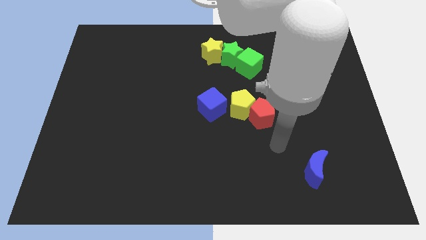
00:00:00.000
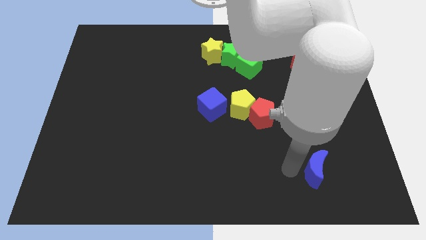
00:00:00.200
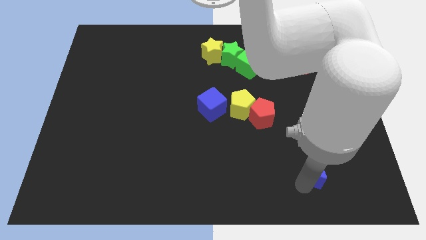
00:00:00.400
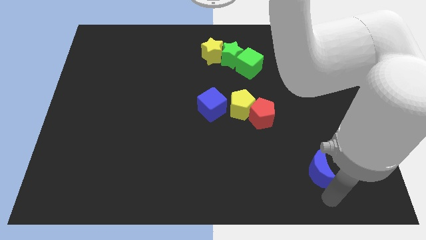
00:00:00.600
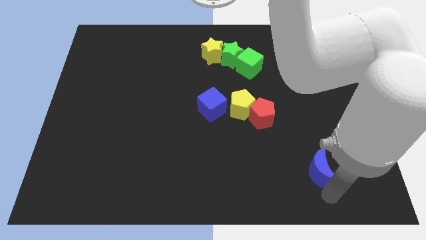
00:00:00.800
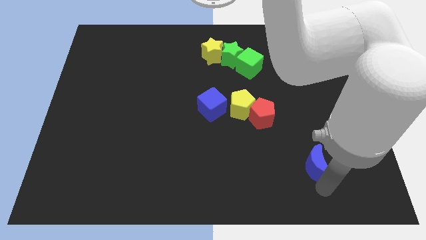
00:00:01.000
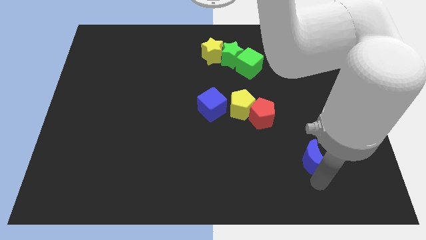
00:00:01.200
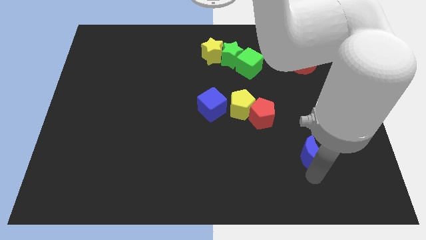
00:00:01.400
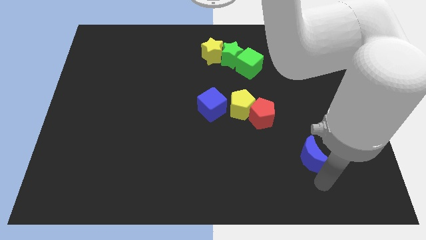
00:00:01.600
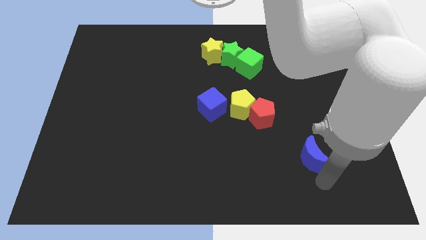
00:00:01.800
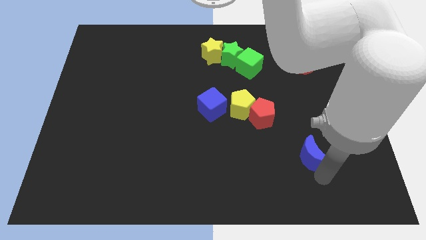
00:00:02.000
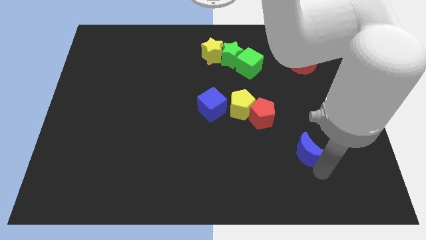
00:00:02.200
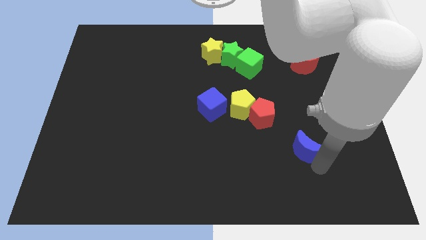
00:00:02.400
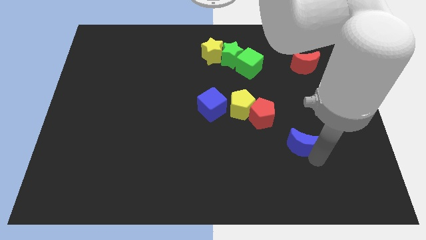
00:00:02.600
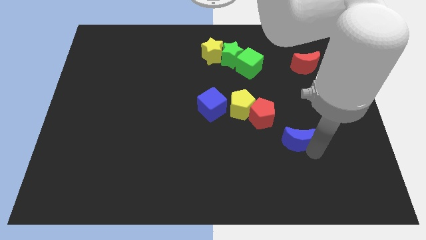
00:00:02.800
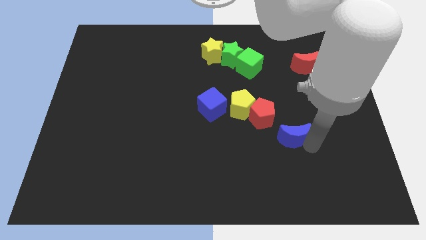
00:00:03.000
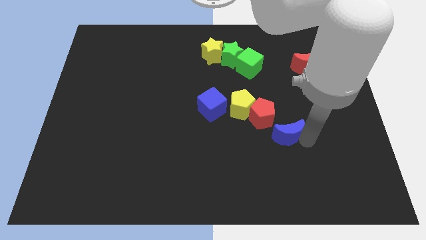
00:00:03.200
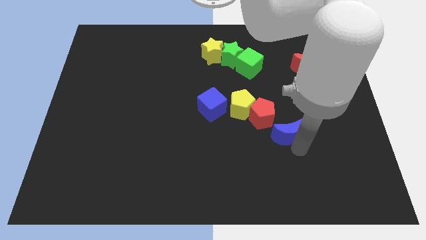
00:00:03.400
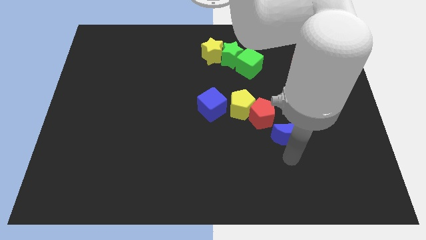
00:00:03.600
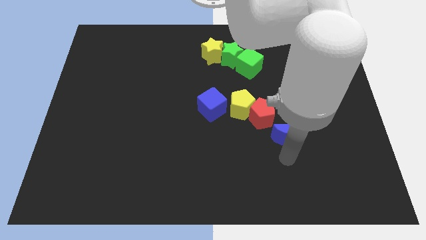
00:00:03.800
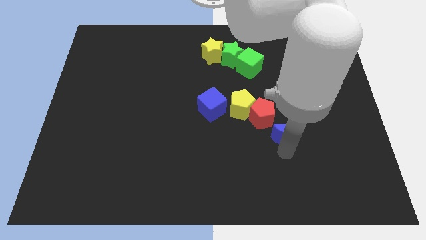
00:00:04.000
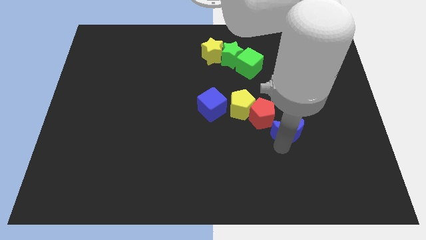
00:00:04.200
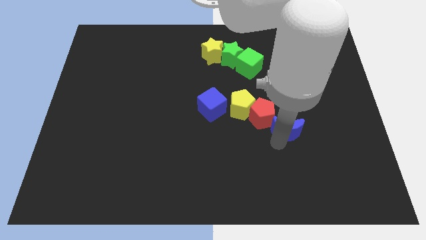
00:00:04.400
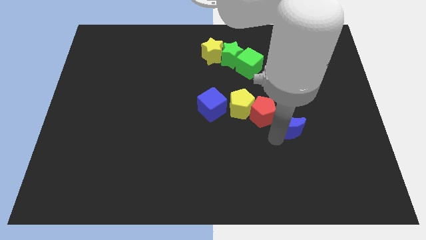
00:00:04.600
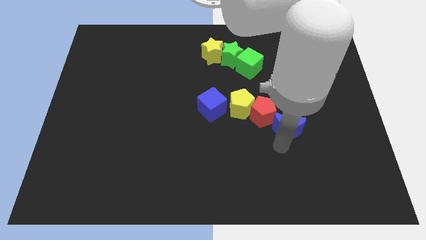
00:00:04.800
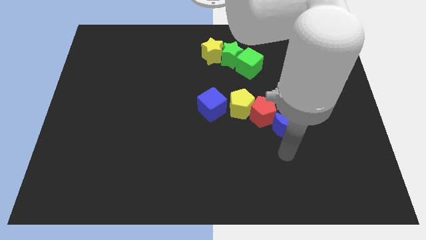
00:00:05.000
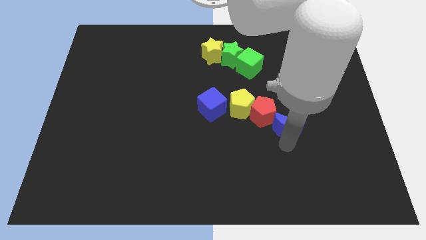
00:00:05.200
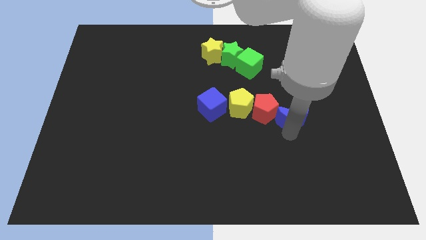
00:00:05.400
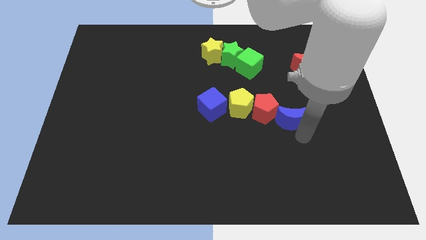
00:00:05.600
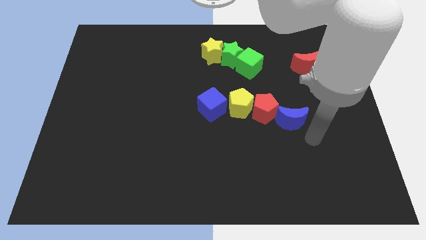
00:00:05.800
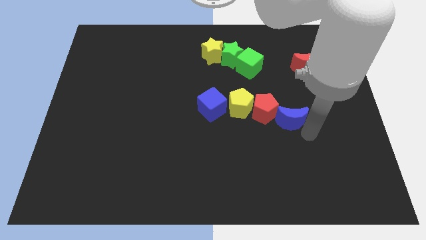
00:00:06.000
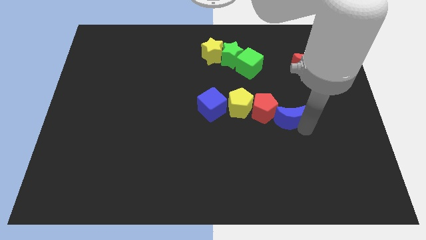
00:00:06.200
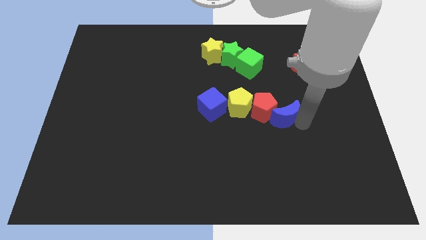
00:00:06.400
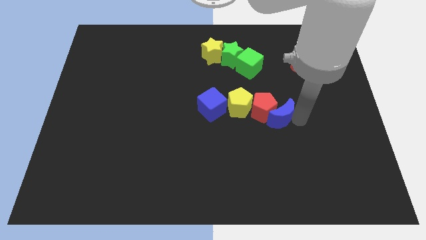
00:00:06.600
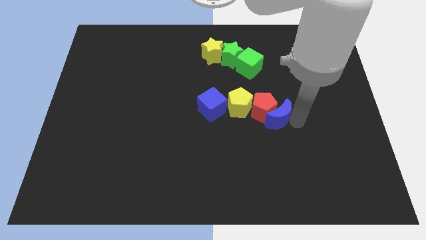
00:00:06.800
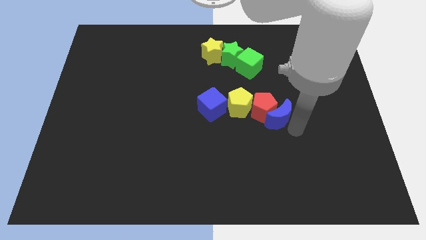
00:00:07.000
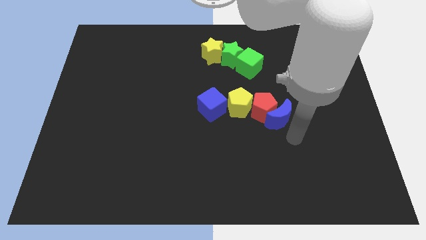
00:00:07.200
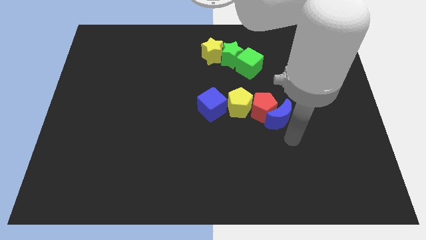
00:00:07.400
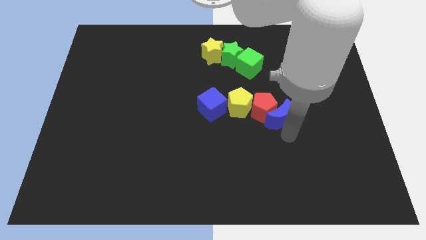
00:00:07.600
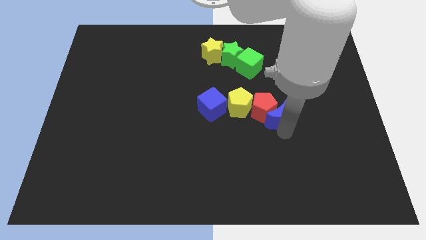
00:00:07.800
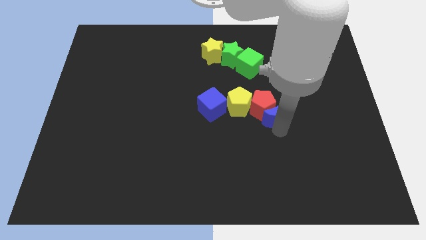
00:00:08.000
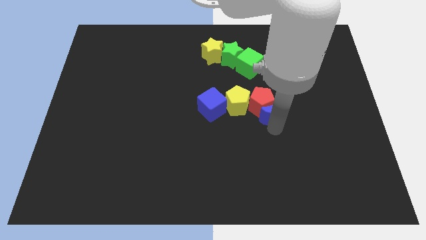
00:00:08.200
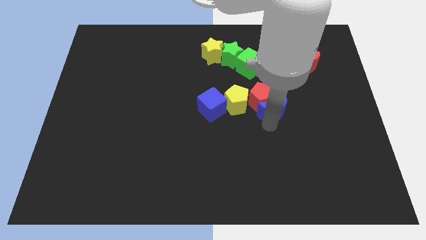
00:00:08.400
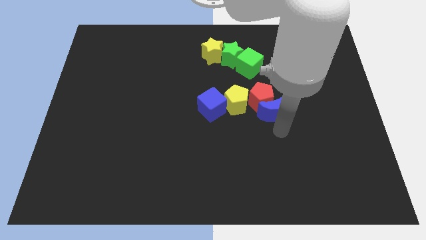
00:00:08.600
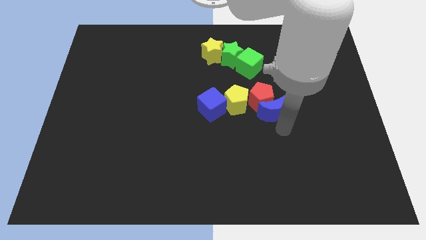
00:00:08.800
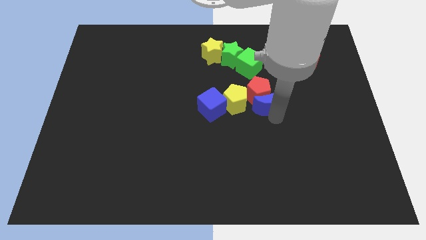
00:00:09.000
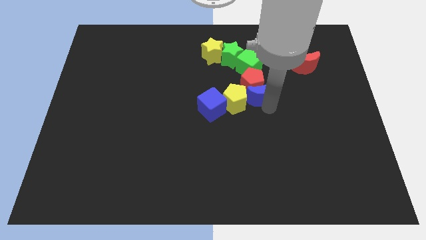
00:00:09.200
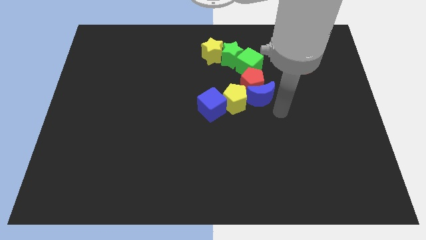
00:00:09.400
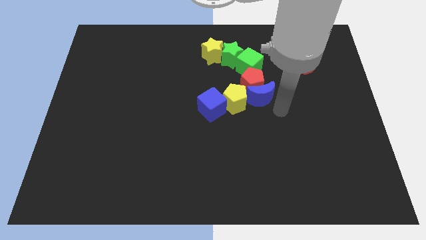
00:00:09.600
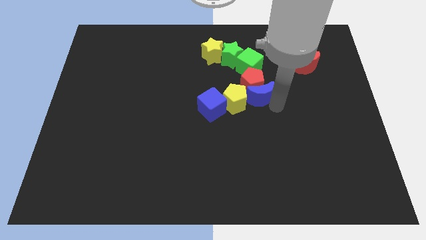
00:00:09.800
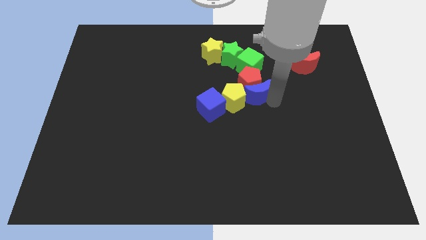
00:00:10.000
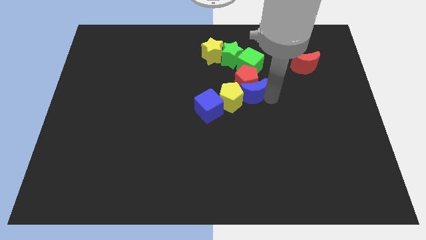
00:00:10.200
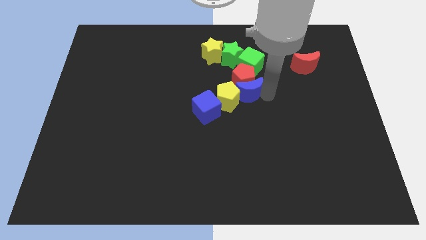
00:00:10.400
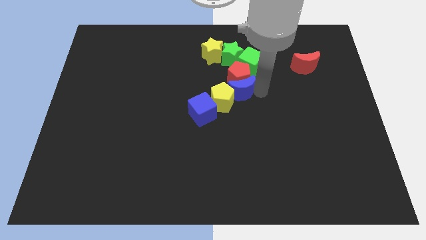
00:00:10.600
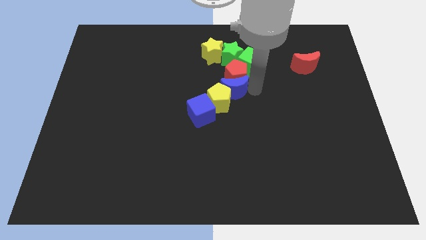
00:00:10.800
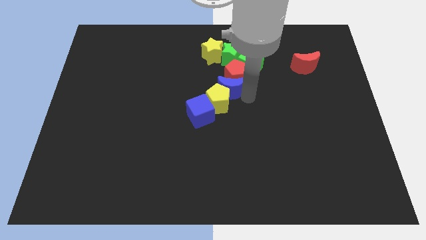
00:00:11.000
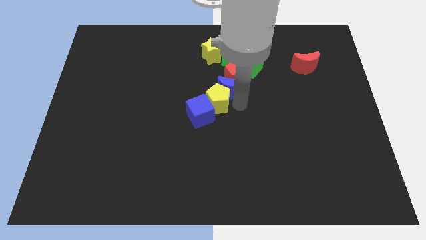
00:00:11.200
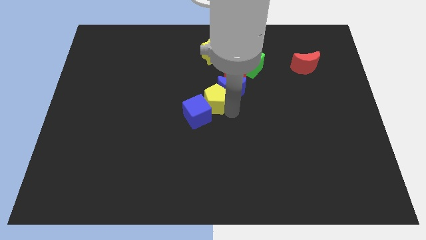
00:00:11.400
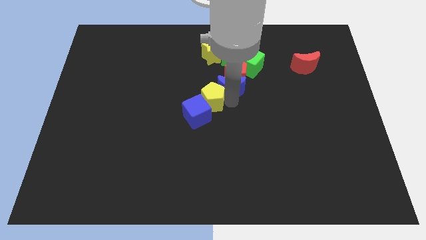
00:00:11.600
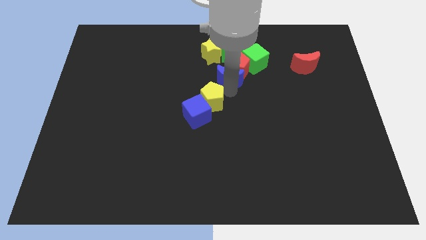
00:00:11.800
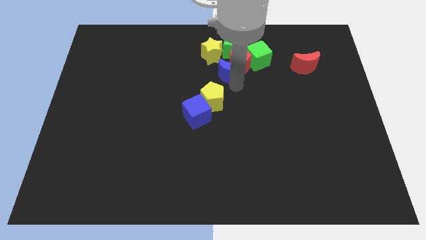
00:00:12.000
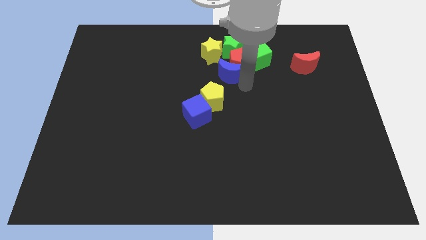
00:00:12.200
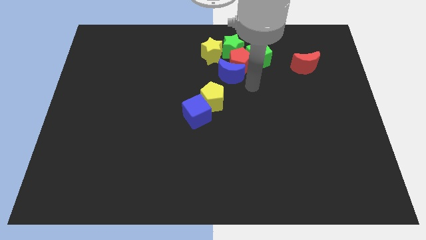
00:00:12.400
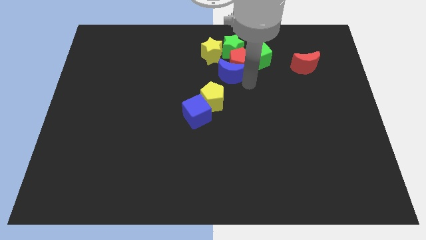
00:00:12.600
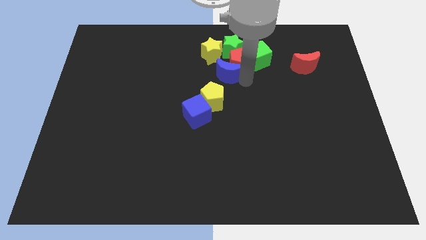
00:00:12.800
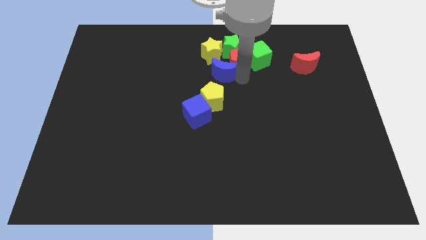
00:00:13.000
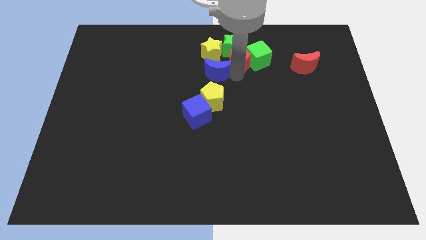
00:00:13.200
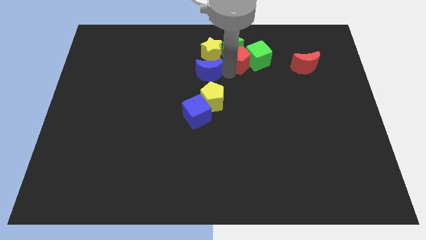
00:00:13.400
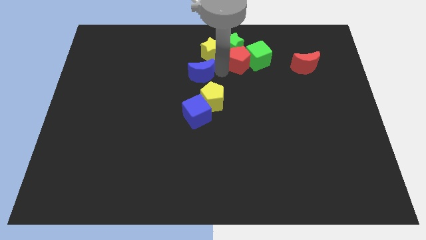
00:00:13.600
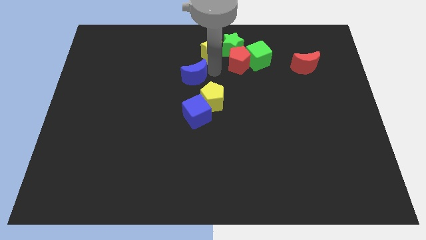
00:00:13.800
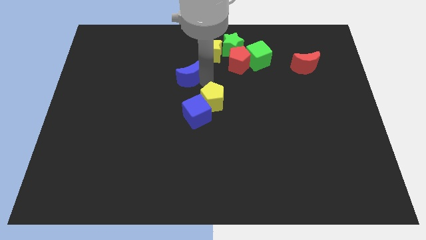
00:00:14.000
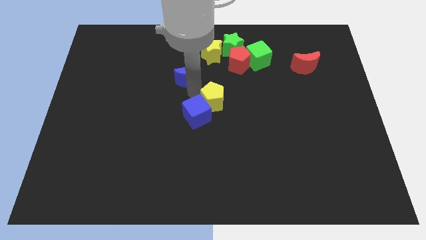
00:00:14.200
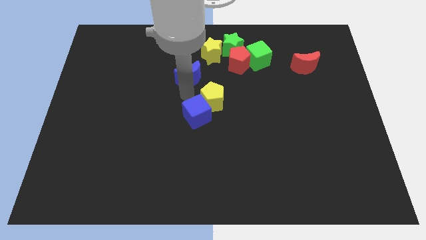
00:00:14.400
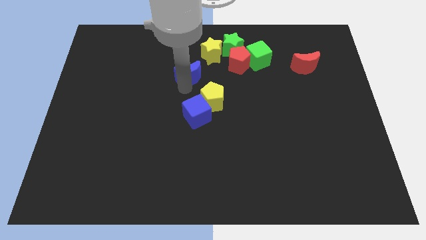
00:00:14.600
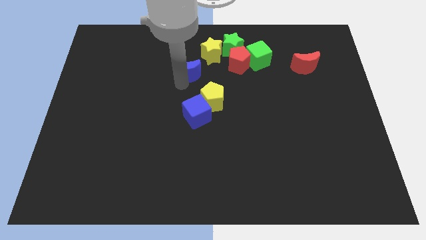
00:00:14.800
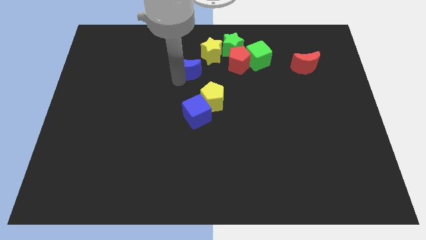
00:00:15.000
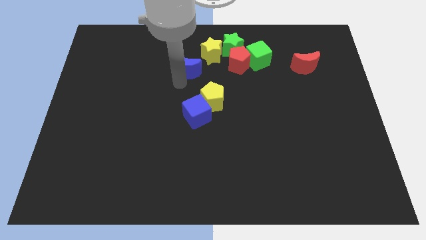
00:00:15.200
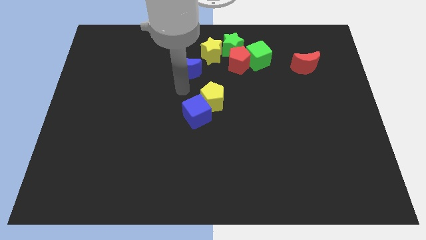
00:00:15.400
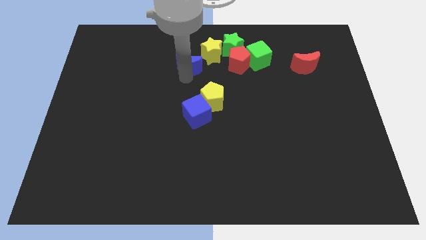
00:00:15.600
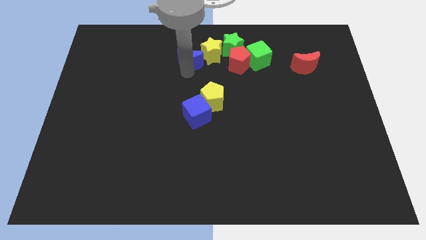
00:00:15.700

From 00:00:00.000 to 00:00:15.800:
push the blue moon to the left of the green star
